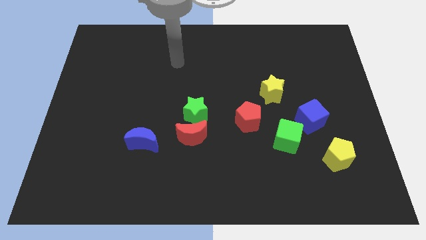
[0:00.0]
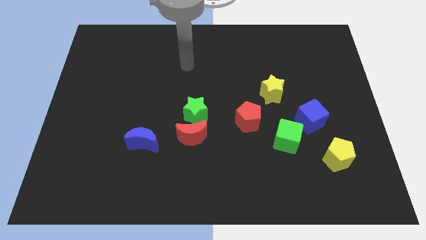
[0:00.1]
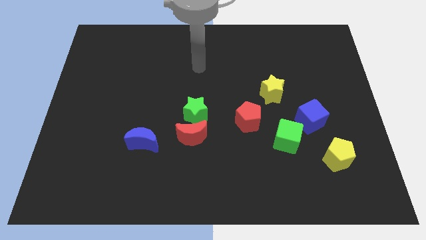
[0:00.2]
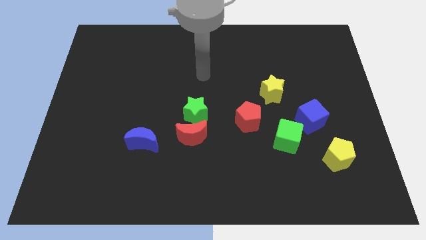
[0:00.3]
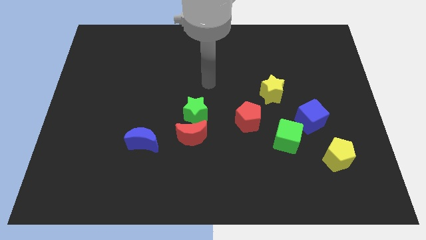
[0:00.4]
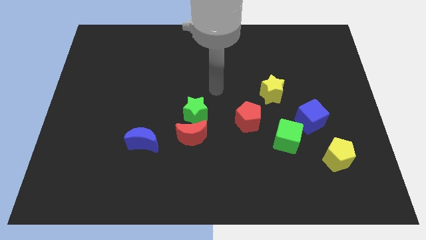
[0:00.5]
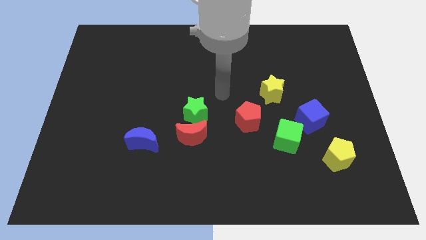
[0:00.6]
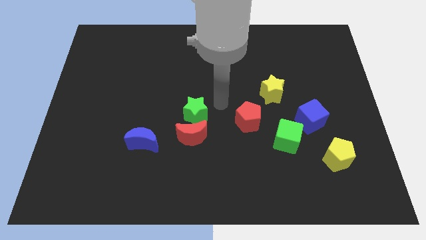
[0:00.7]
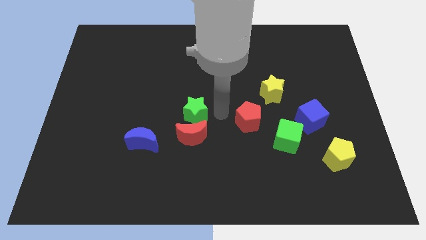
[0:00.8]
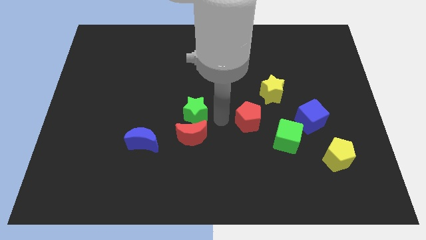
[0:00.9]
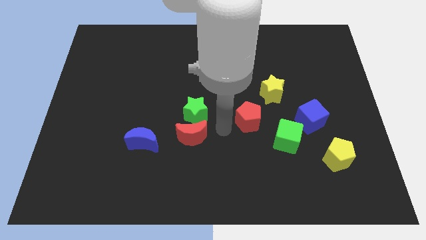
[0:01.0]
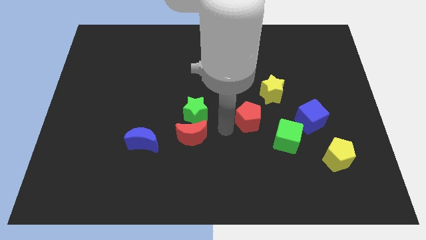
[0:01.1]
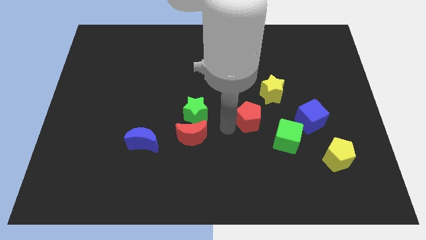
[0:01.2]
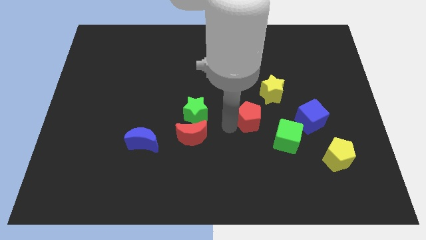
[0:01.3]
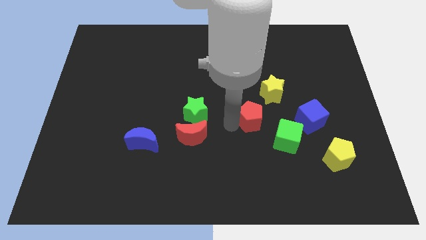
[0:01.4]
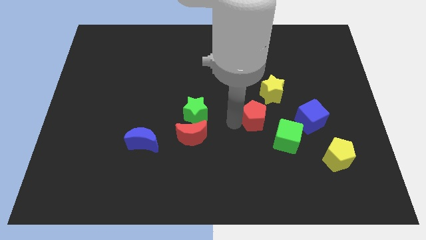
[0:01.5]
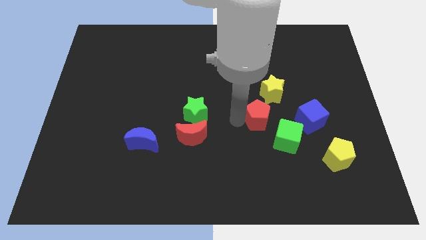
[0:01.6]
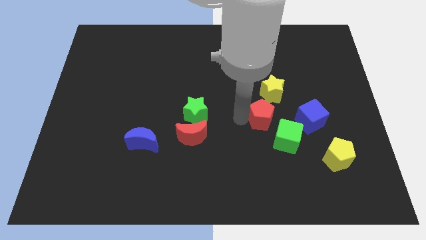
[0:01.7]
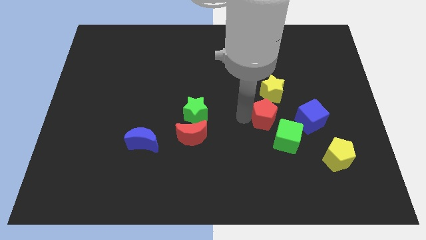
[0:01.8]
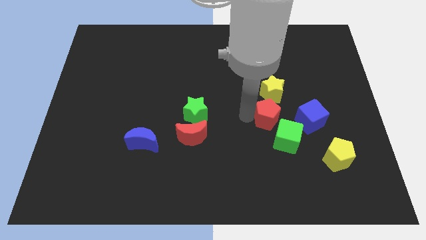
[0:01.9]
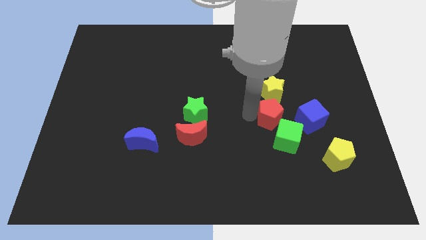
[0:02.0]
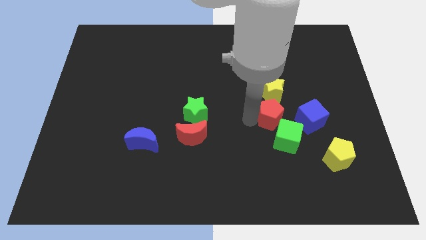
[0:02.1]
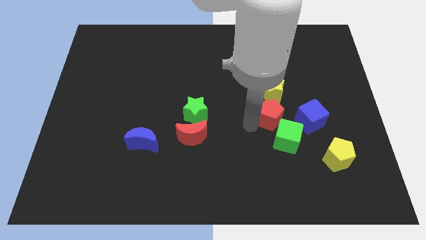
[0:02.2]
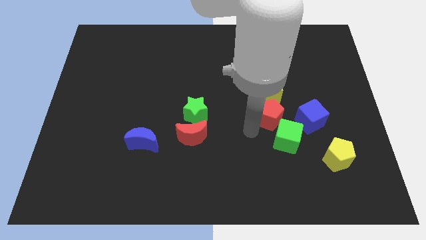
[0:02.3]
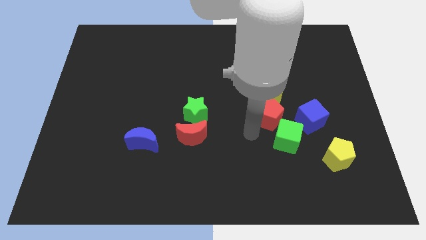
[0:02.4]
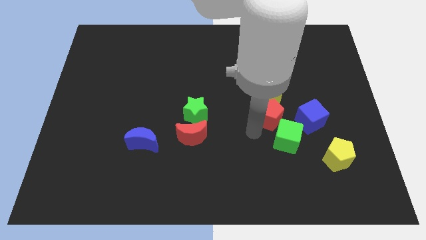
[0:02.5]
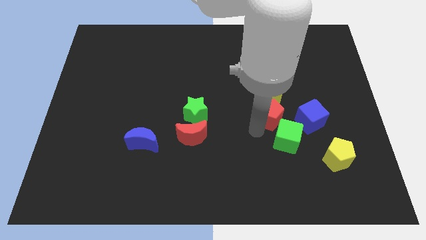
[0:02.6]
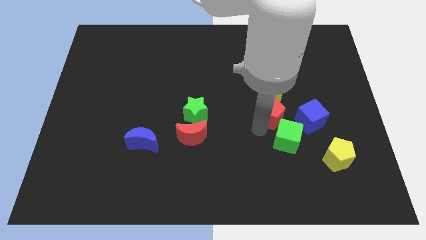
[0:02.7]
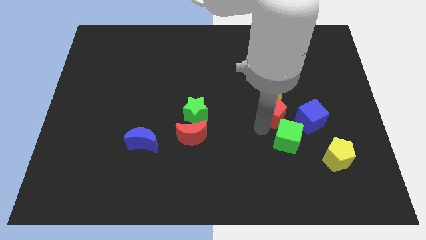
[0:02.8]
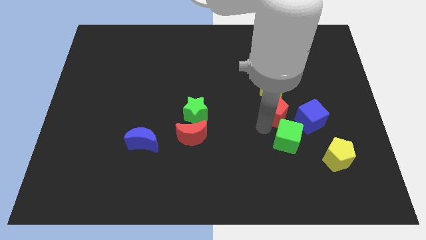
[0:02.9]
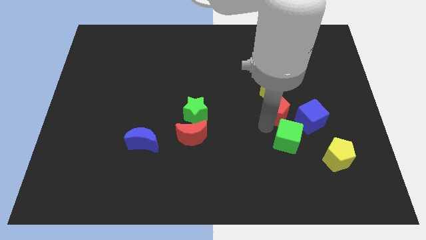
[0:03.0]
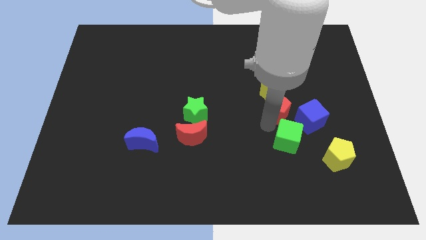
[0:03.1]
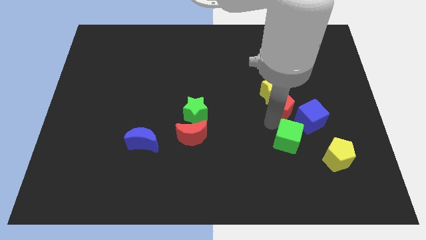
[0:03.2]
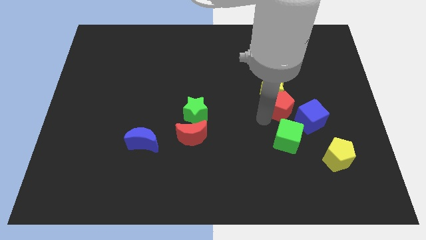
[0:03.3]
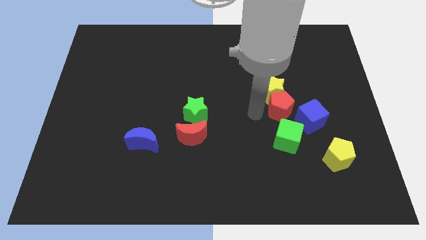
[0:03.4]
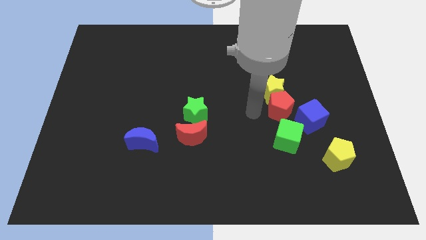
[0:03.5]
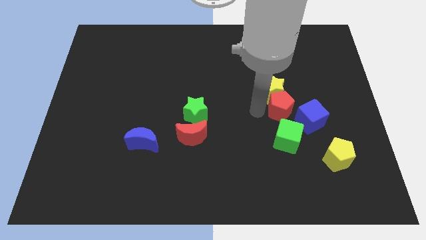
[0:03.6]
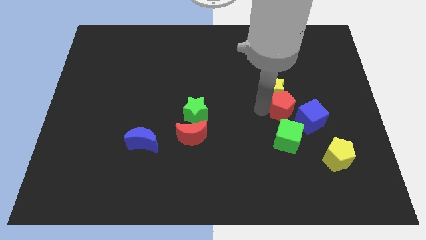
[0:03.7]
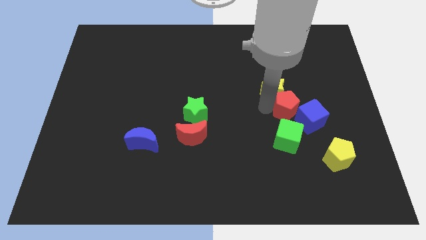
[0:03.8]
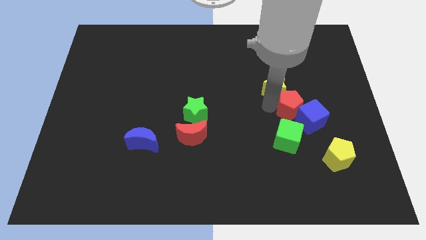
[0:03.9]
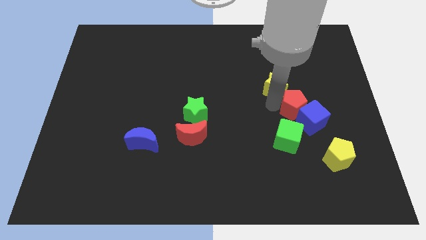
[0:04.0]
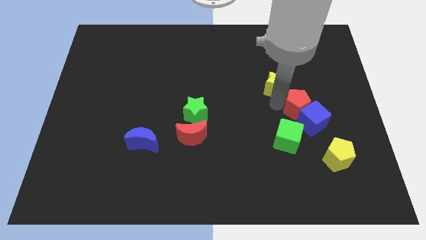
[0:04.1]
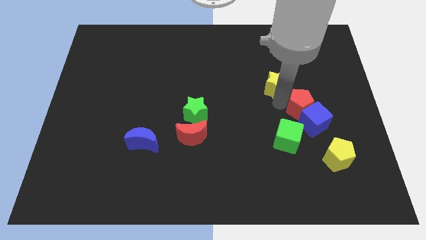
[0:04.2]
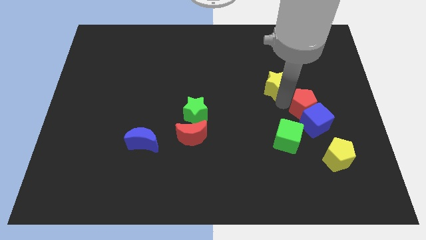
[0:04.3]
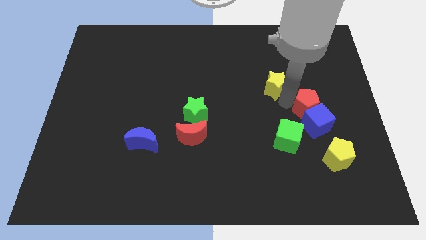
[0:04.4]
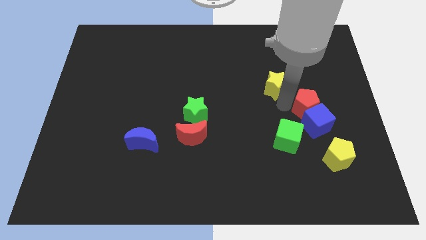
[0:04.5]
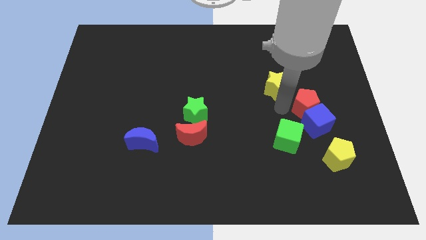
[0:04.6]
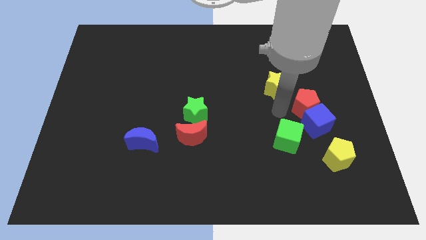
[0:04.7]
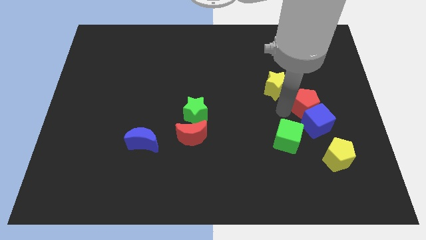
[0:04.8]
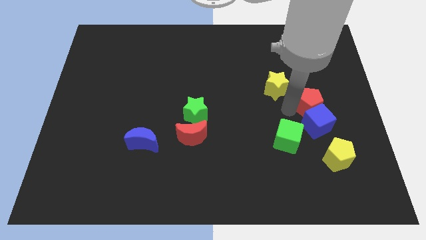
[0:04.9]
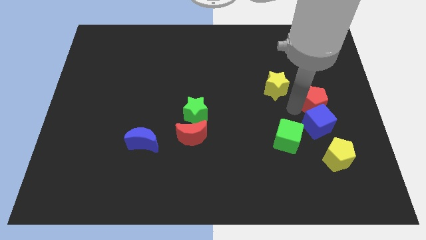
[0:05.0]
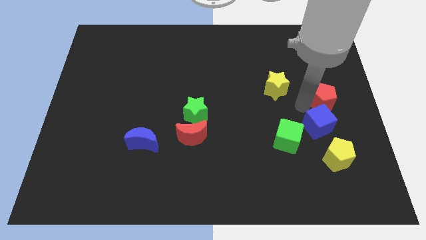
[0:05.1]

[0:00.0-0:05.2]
move the red pentagon to the right side of the board

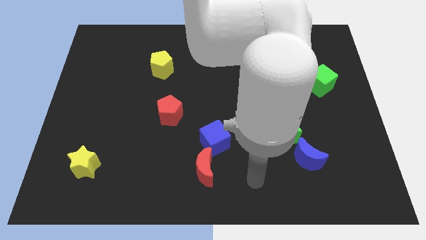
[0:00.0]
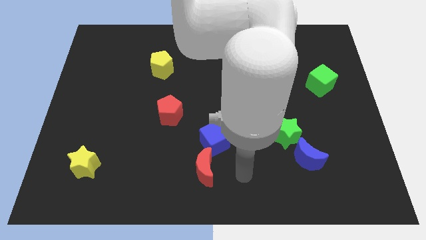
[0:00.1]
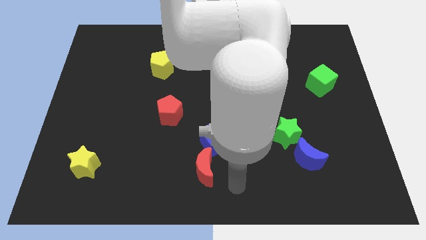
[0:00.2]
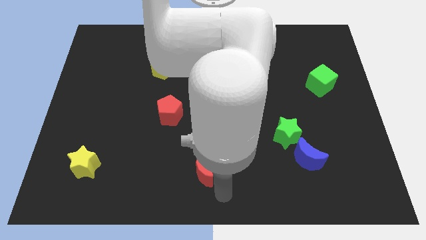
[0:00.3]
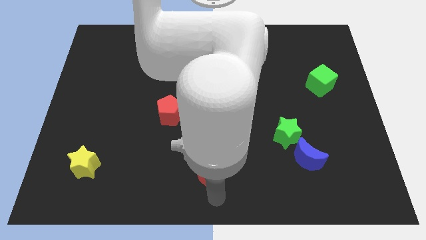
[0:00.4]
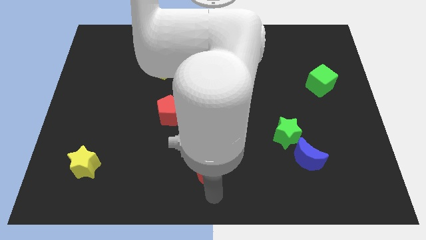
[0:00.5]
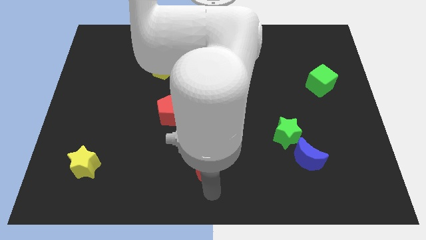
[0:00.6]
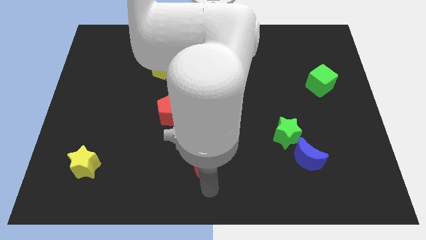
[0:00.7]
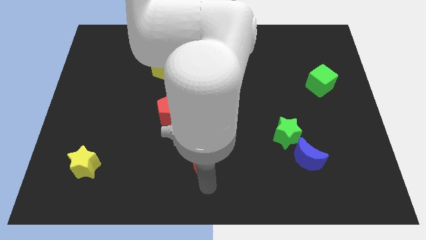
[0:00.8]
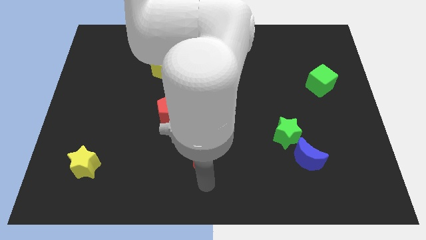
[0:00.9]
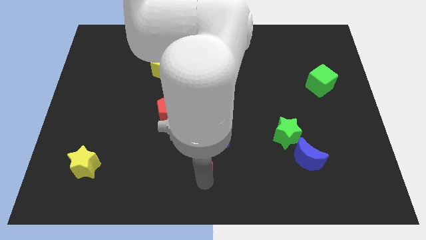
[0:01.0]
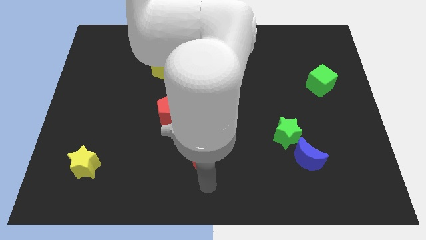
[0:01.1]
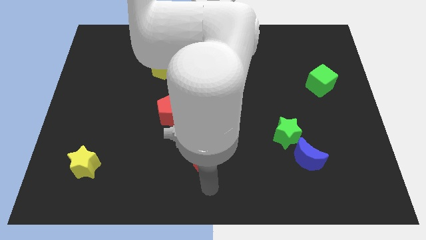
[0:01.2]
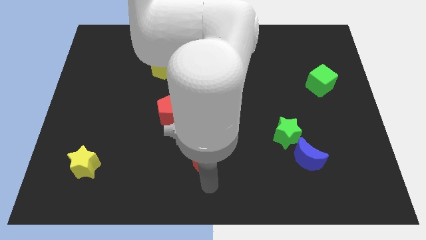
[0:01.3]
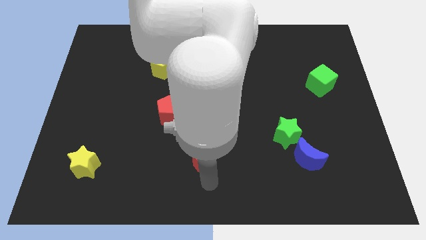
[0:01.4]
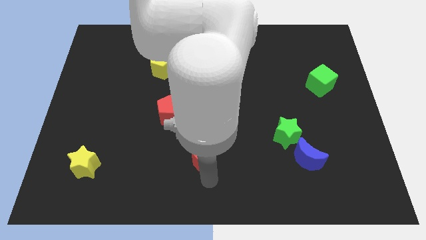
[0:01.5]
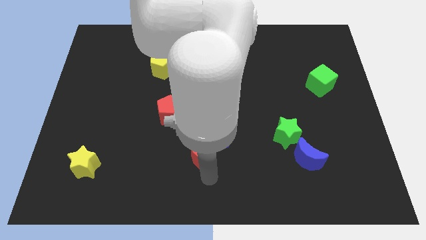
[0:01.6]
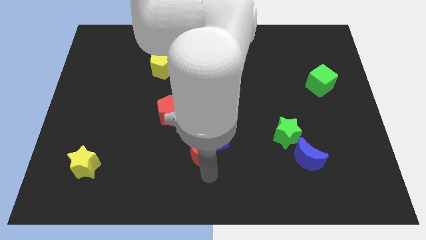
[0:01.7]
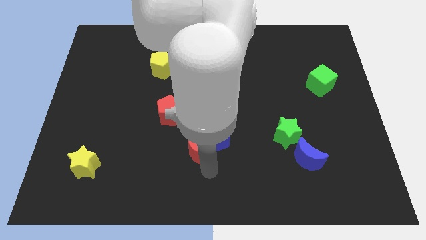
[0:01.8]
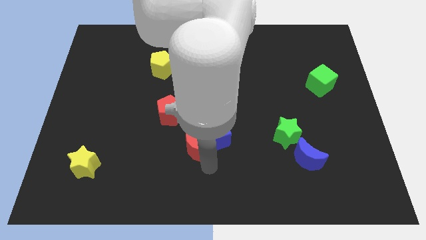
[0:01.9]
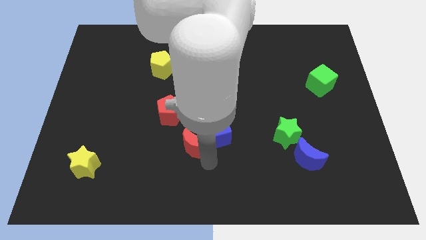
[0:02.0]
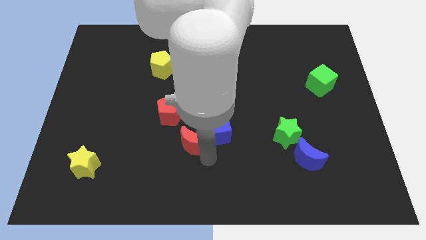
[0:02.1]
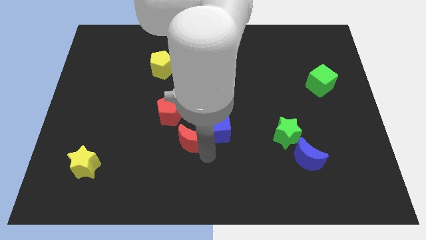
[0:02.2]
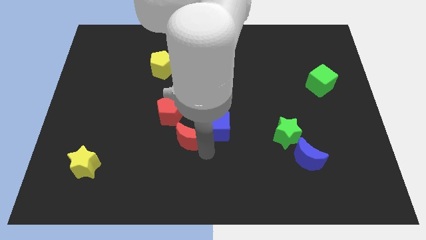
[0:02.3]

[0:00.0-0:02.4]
push the red moon to the center of the board
